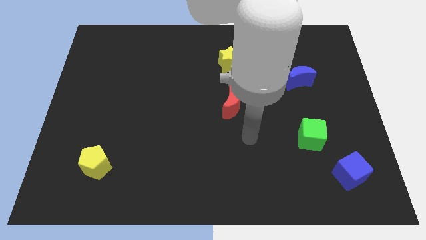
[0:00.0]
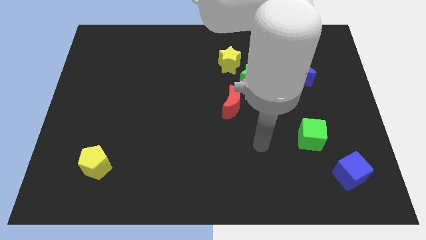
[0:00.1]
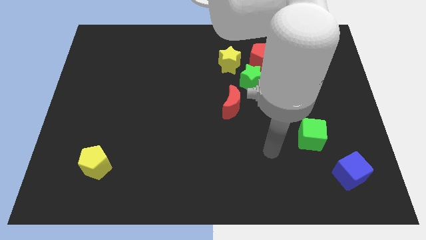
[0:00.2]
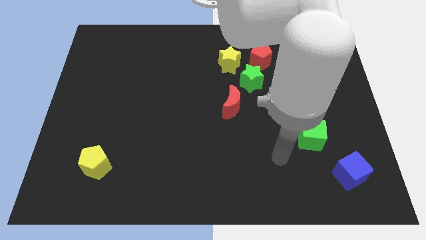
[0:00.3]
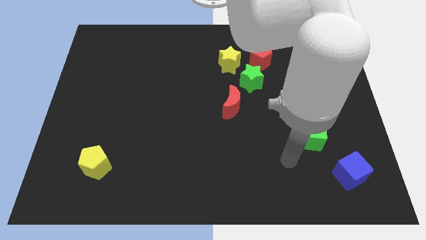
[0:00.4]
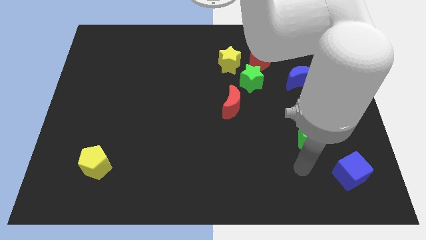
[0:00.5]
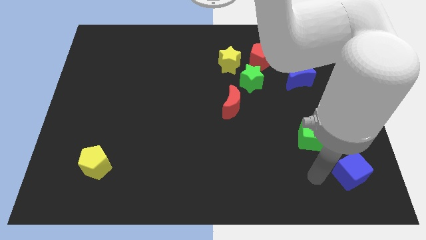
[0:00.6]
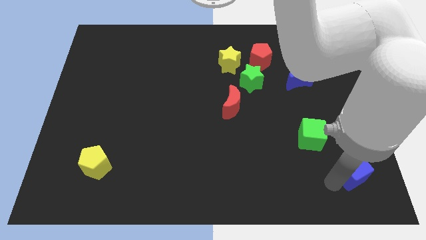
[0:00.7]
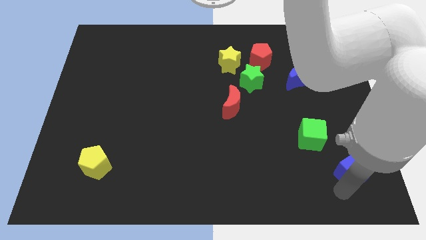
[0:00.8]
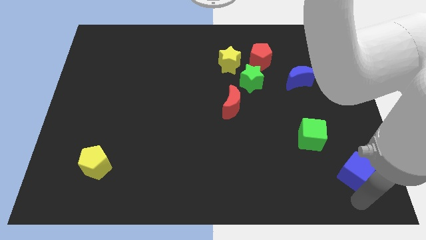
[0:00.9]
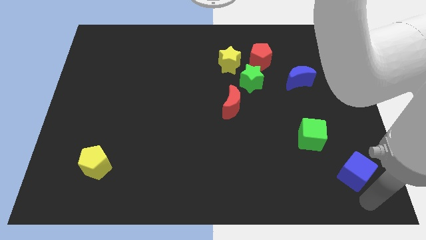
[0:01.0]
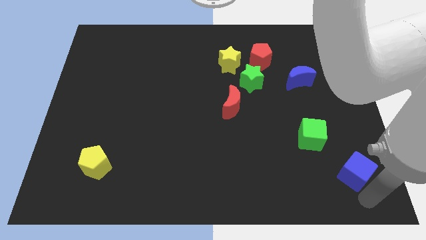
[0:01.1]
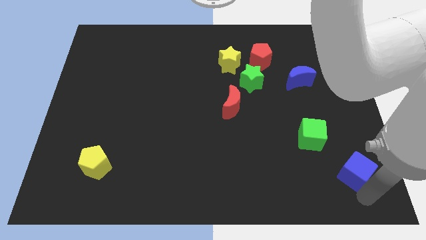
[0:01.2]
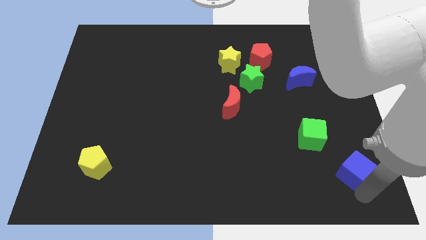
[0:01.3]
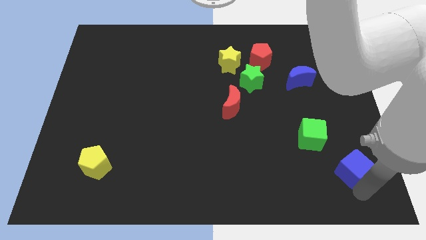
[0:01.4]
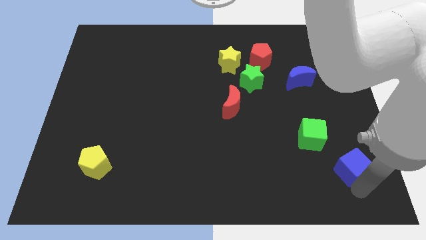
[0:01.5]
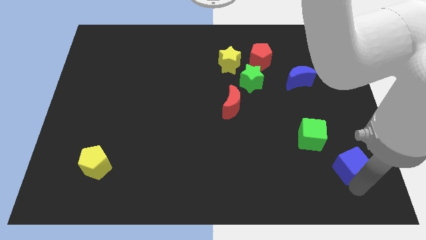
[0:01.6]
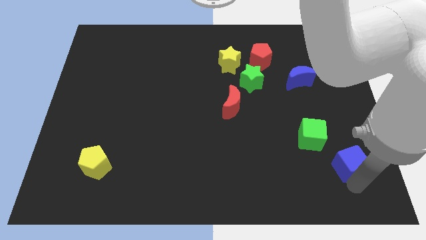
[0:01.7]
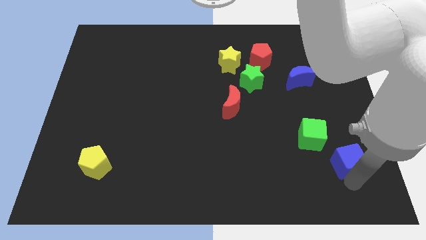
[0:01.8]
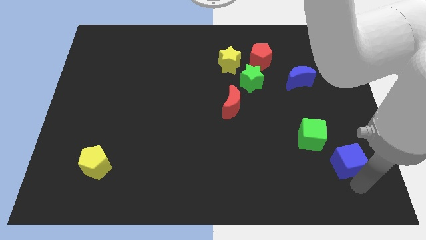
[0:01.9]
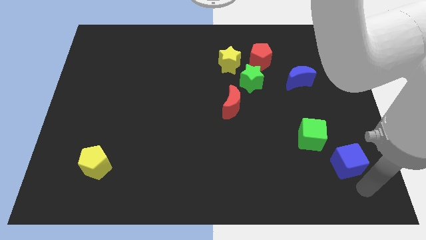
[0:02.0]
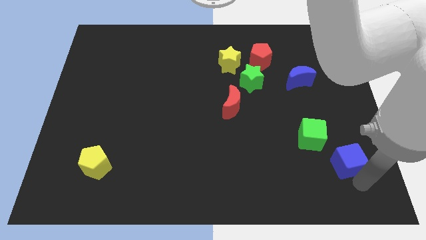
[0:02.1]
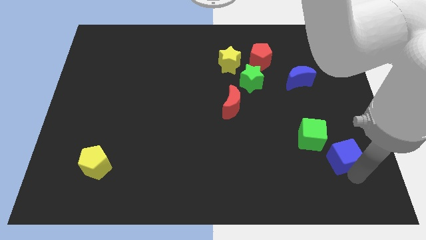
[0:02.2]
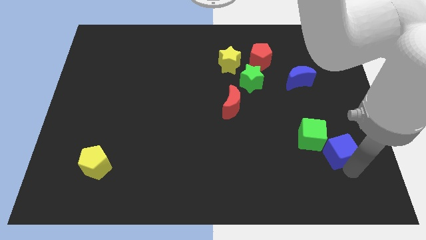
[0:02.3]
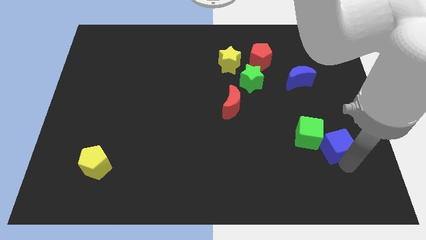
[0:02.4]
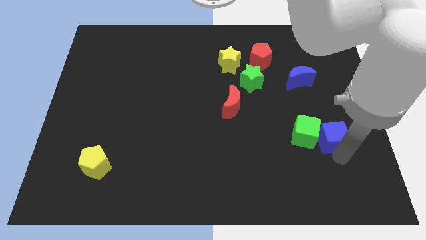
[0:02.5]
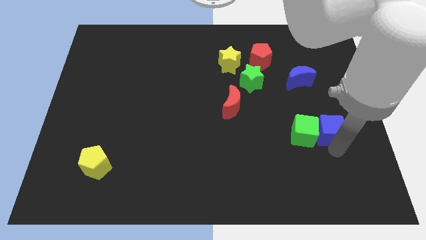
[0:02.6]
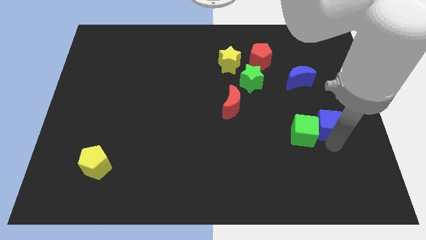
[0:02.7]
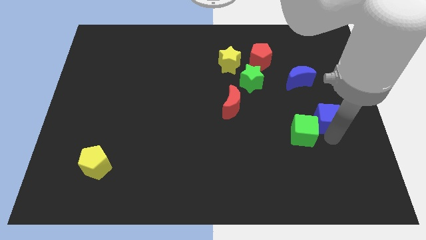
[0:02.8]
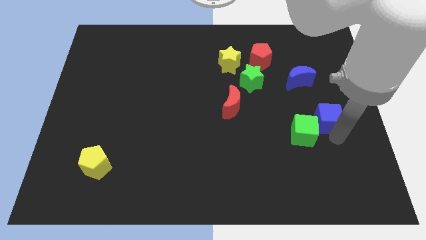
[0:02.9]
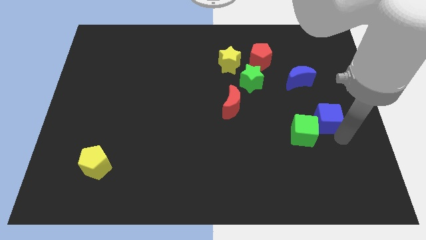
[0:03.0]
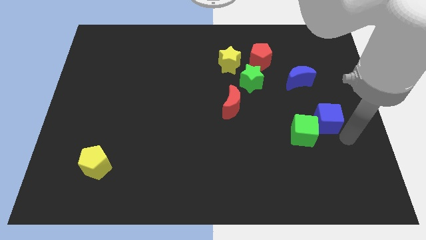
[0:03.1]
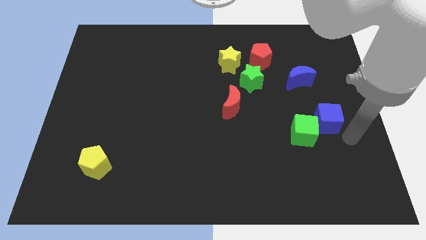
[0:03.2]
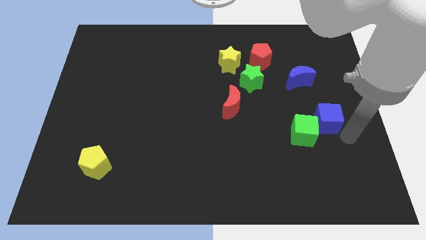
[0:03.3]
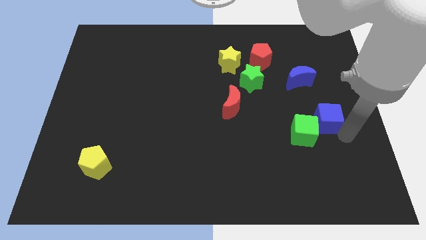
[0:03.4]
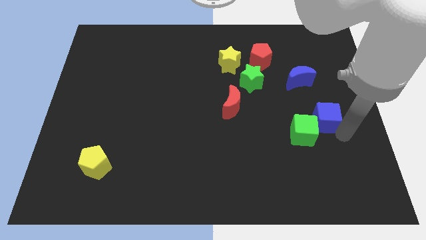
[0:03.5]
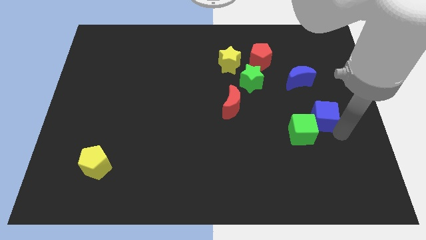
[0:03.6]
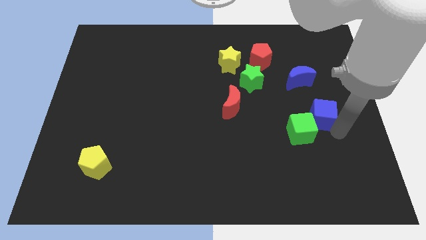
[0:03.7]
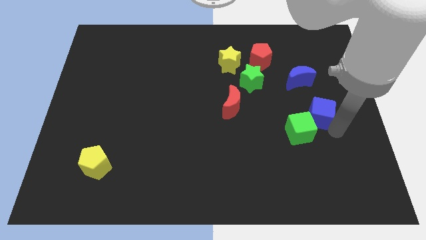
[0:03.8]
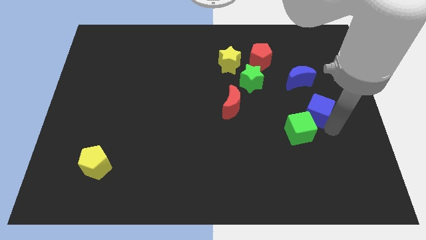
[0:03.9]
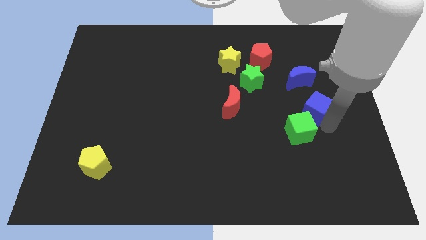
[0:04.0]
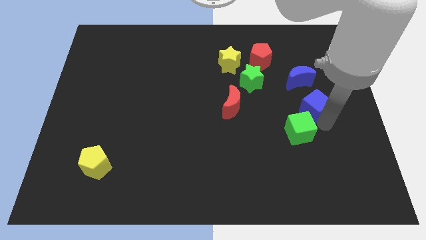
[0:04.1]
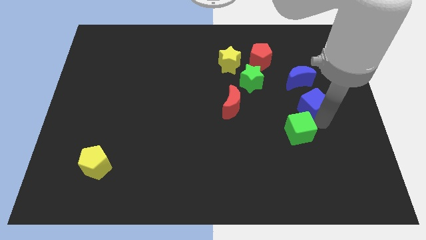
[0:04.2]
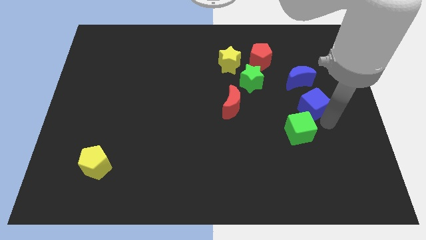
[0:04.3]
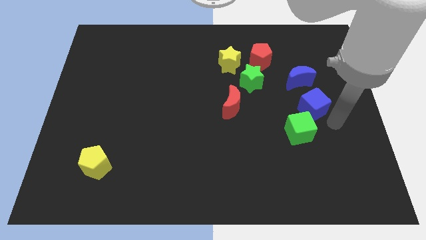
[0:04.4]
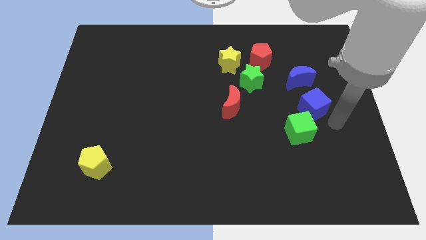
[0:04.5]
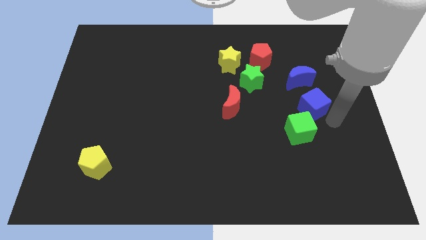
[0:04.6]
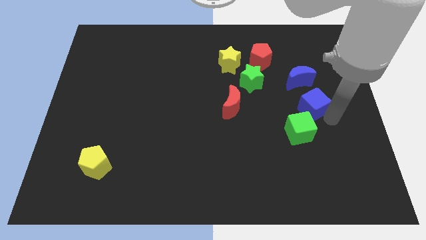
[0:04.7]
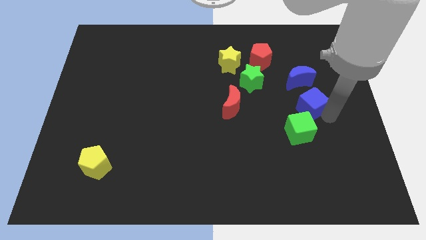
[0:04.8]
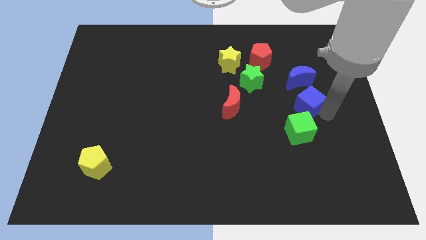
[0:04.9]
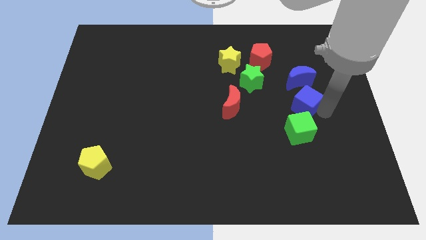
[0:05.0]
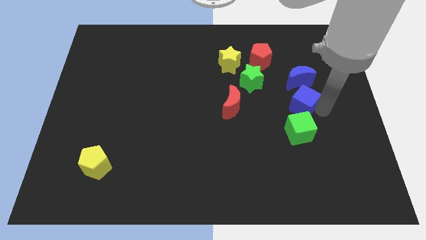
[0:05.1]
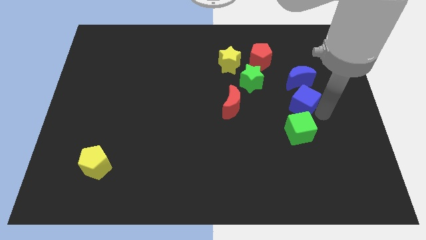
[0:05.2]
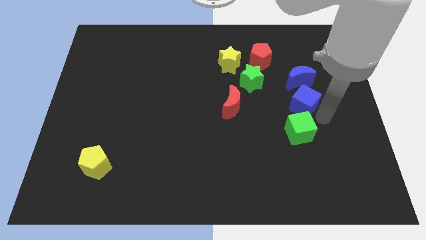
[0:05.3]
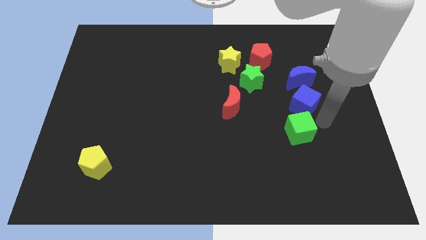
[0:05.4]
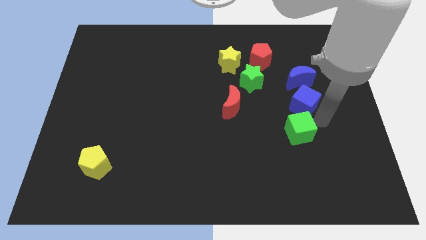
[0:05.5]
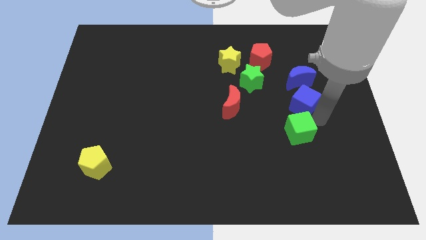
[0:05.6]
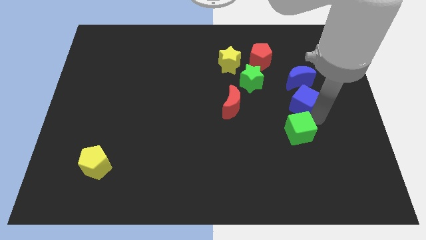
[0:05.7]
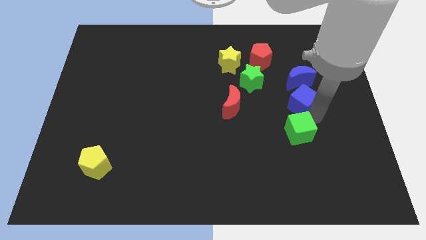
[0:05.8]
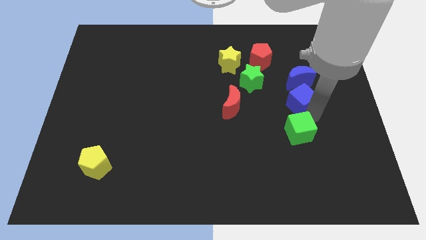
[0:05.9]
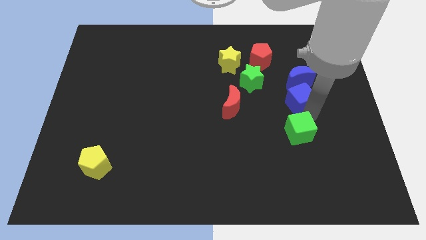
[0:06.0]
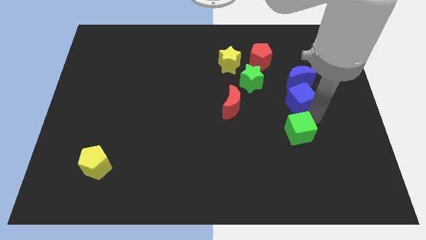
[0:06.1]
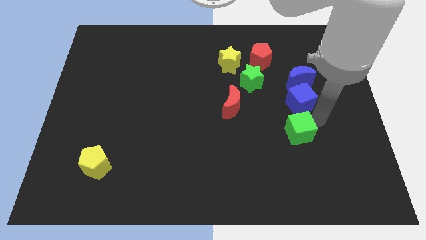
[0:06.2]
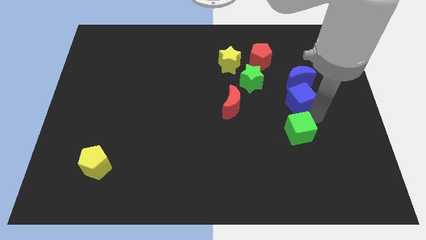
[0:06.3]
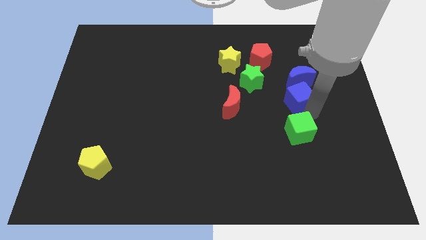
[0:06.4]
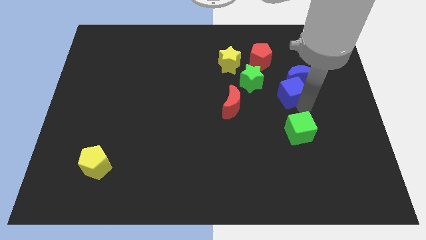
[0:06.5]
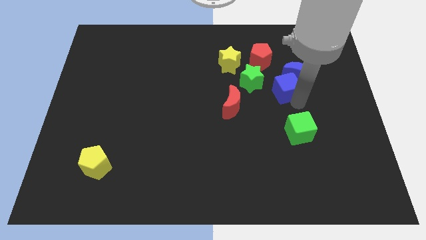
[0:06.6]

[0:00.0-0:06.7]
move the blue cube to the bottom right side of the red pentagon

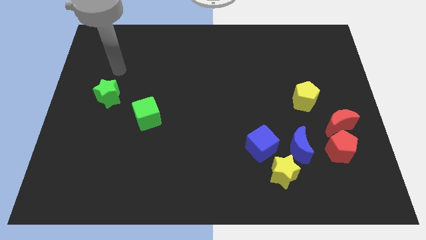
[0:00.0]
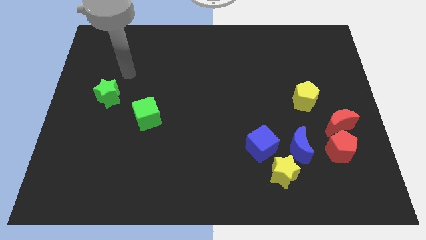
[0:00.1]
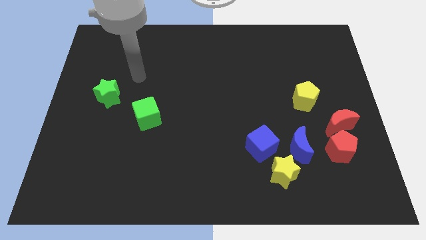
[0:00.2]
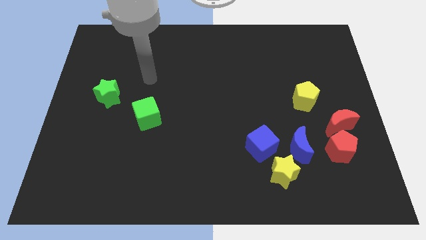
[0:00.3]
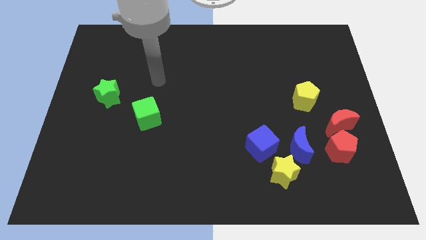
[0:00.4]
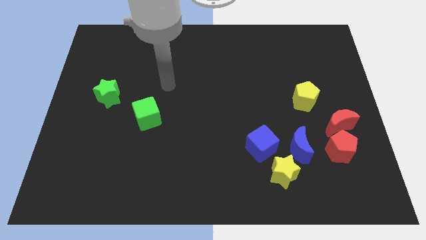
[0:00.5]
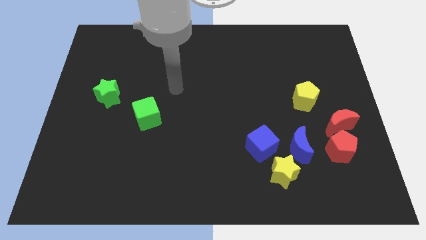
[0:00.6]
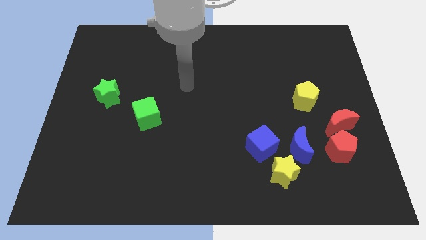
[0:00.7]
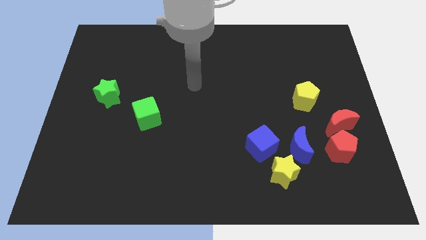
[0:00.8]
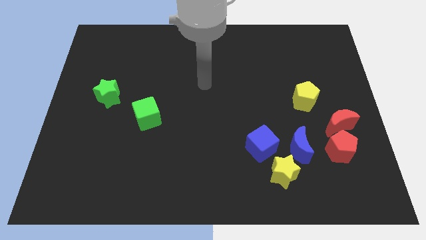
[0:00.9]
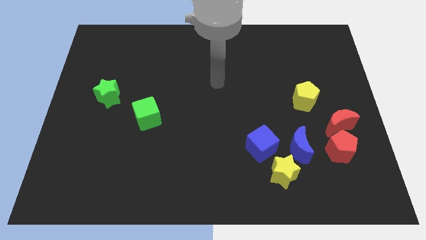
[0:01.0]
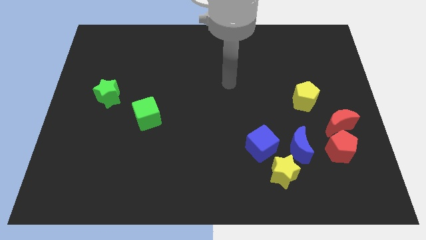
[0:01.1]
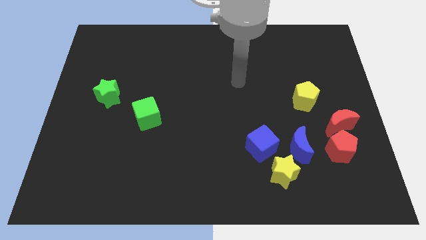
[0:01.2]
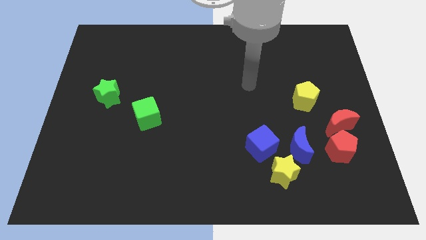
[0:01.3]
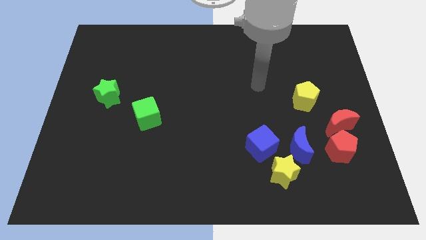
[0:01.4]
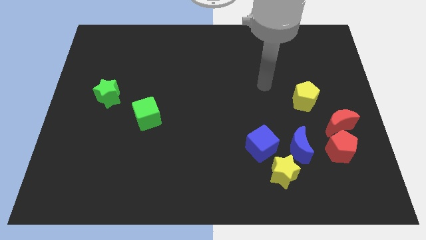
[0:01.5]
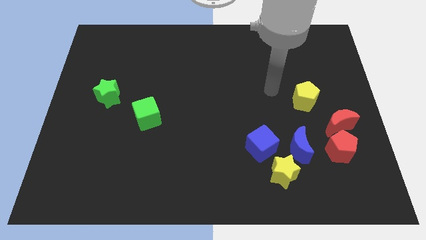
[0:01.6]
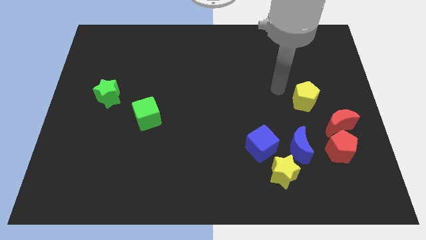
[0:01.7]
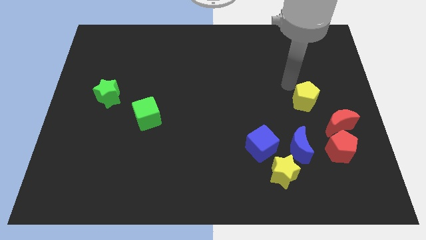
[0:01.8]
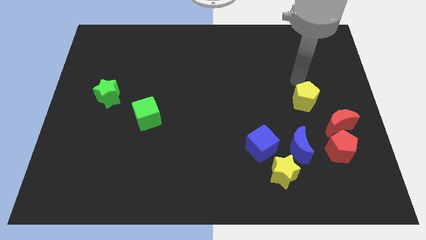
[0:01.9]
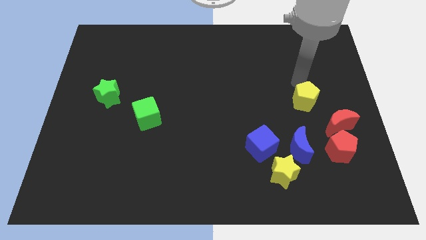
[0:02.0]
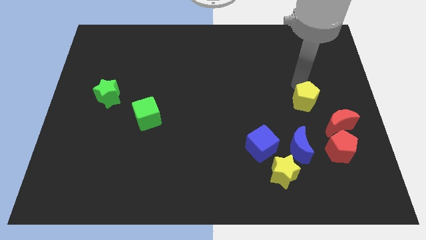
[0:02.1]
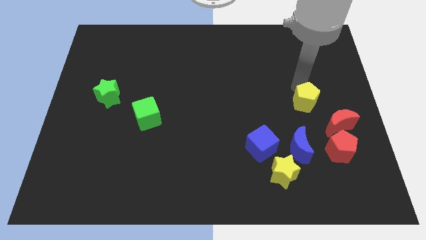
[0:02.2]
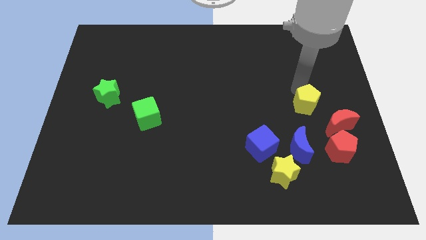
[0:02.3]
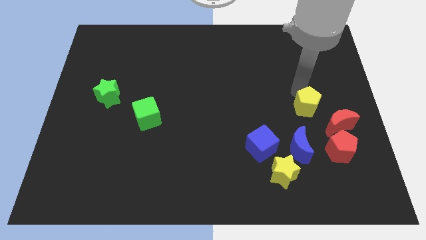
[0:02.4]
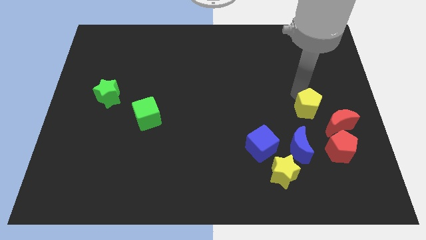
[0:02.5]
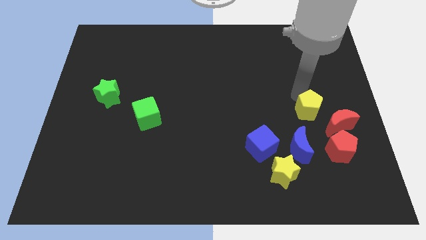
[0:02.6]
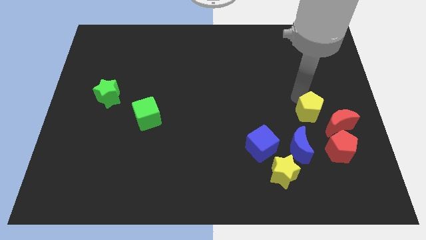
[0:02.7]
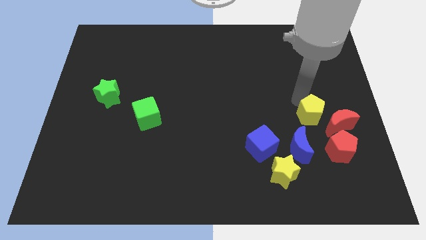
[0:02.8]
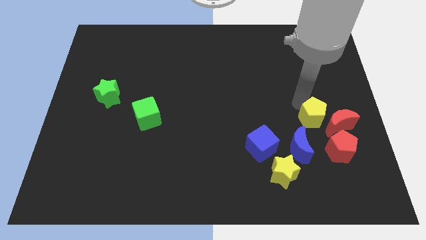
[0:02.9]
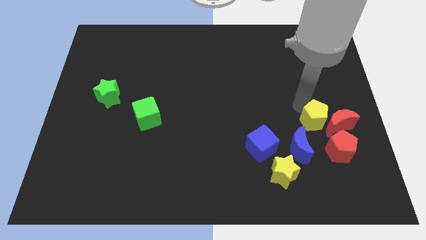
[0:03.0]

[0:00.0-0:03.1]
put the yellow pentagon diagonally down and to the left of the red moon
